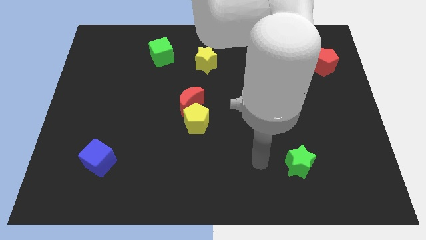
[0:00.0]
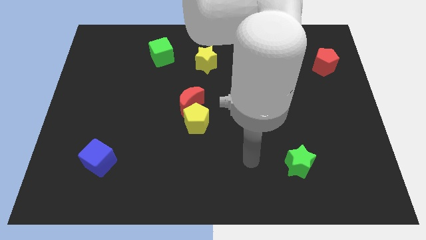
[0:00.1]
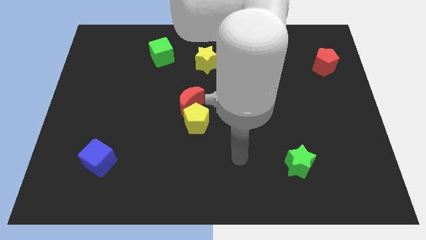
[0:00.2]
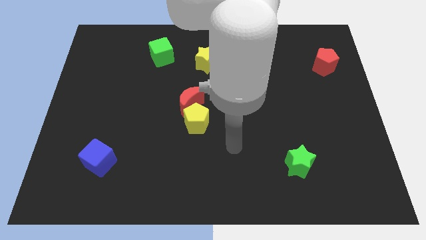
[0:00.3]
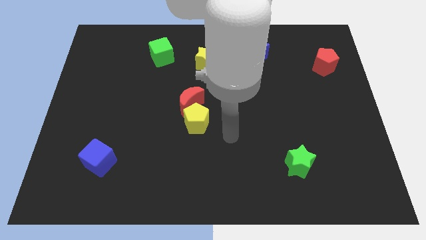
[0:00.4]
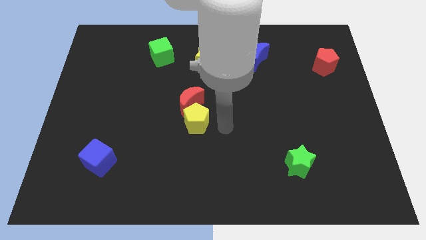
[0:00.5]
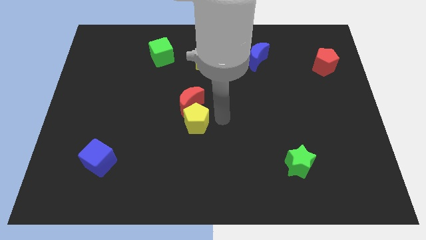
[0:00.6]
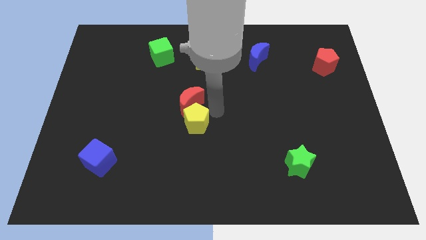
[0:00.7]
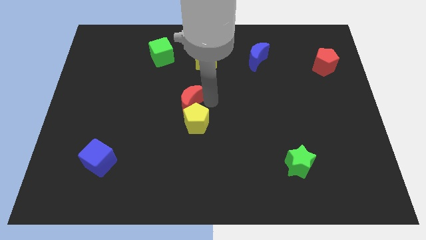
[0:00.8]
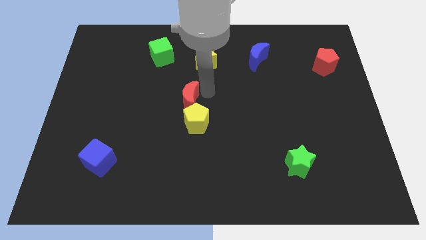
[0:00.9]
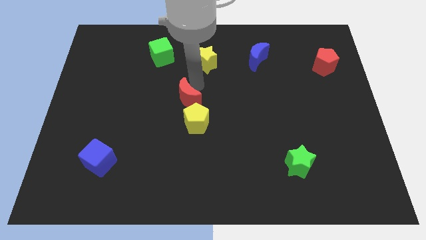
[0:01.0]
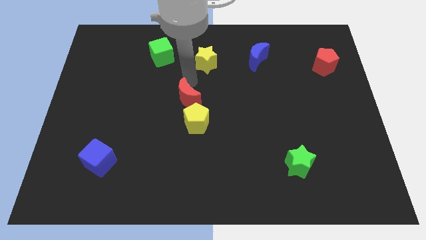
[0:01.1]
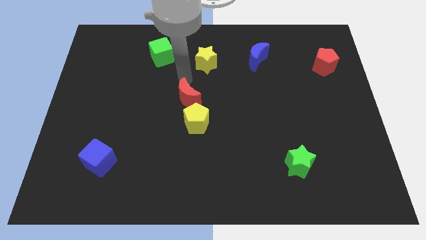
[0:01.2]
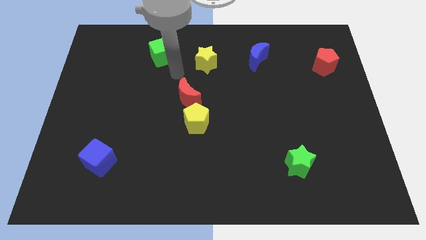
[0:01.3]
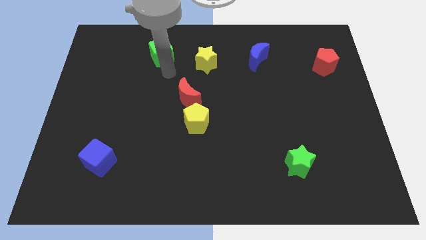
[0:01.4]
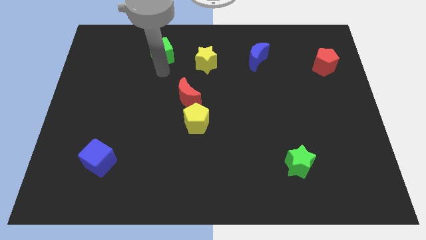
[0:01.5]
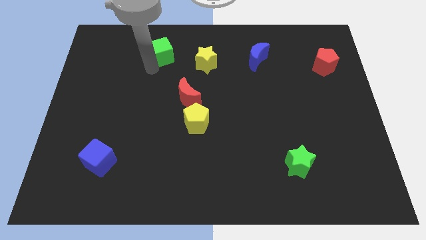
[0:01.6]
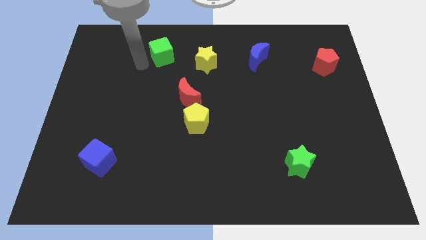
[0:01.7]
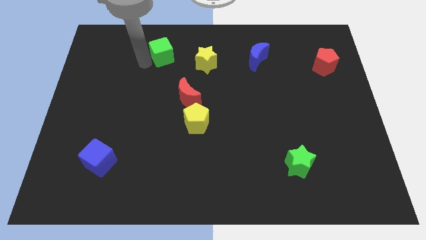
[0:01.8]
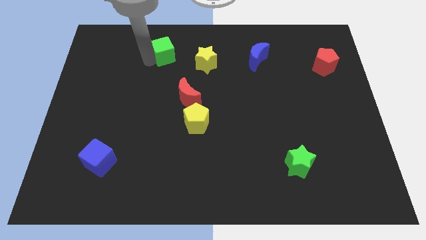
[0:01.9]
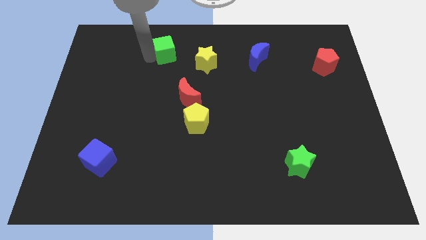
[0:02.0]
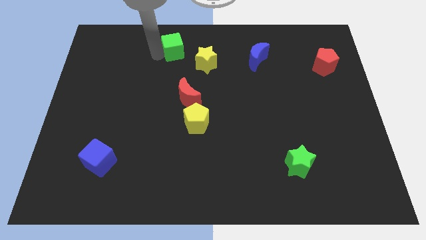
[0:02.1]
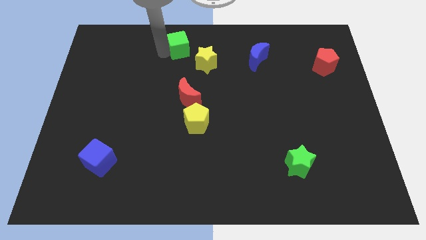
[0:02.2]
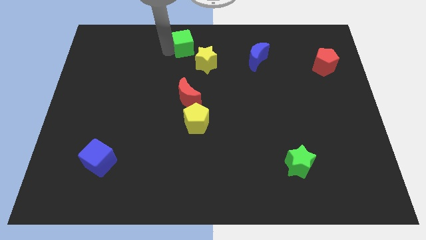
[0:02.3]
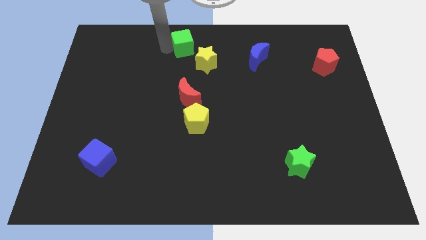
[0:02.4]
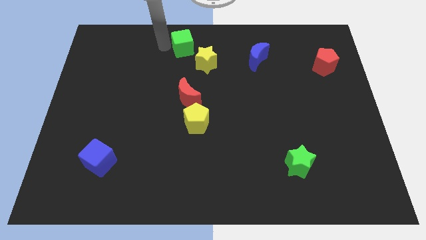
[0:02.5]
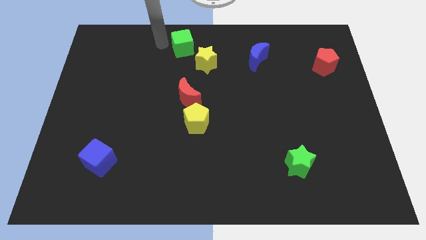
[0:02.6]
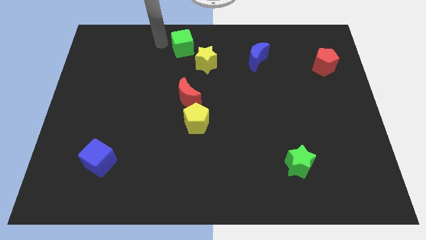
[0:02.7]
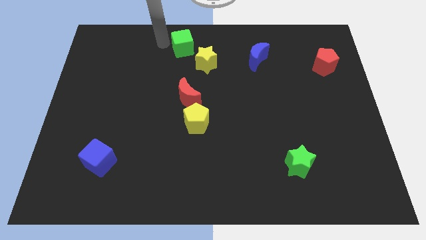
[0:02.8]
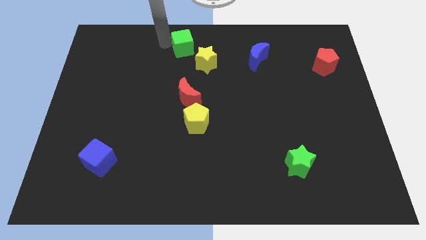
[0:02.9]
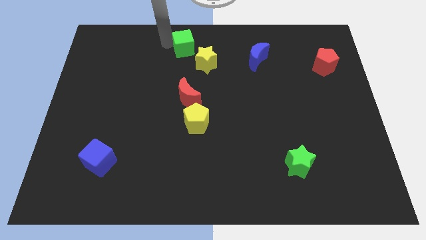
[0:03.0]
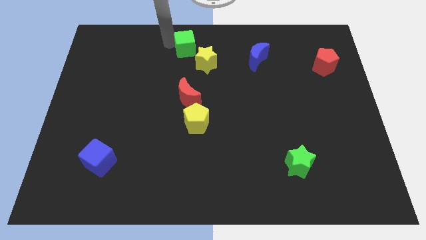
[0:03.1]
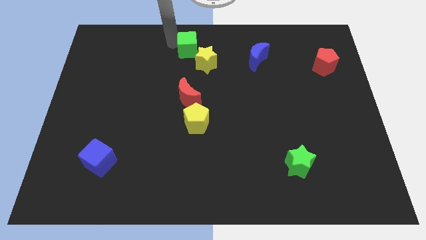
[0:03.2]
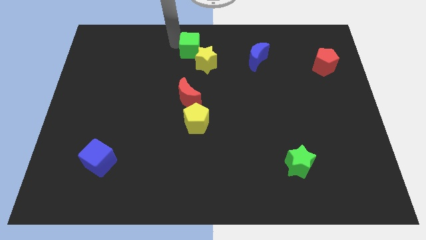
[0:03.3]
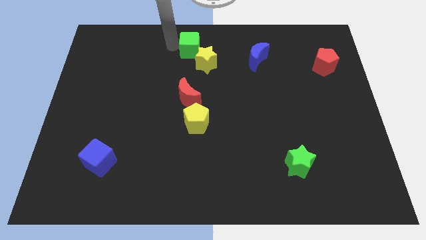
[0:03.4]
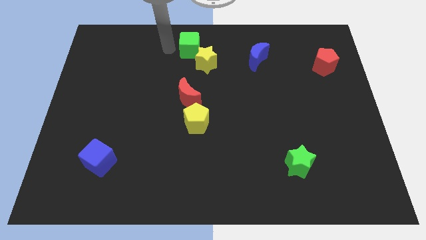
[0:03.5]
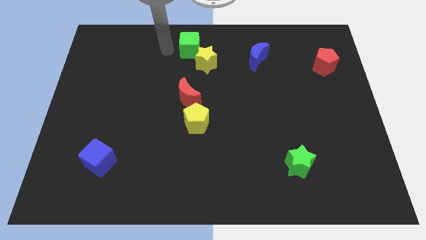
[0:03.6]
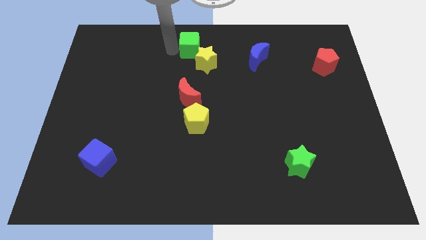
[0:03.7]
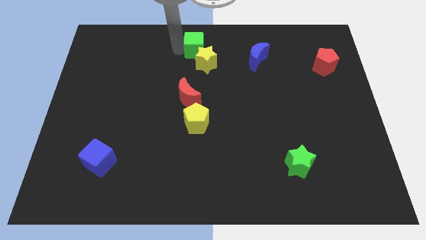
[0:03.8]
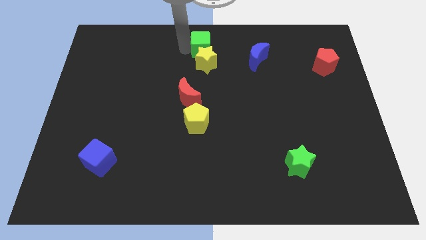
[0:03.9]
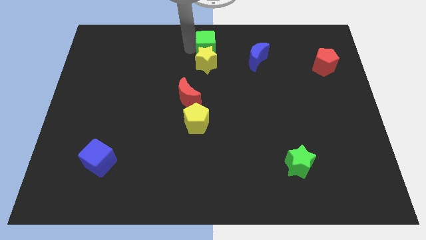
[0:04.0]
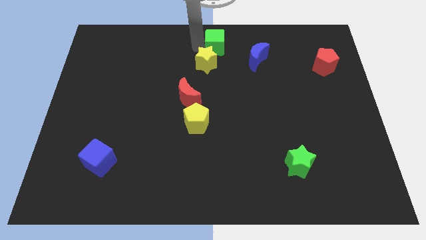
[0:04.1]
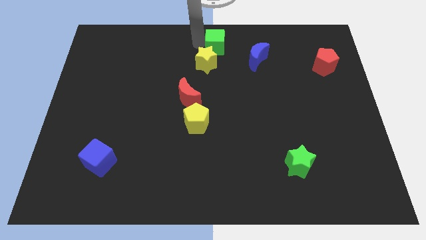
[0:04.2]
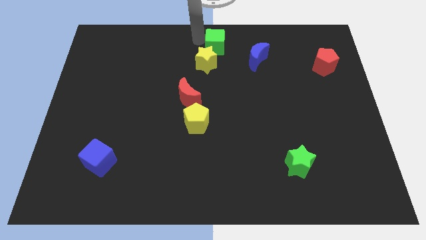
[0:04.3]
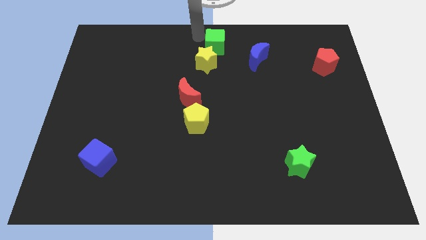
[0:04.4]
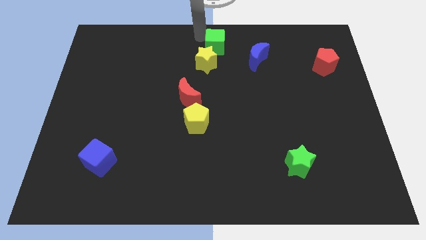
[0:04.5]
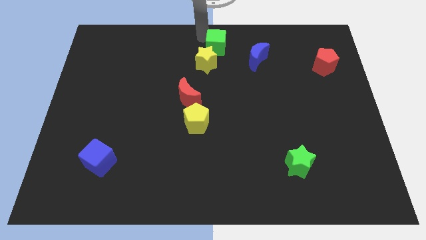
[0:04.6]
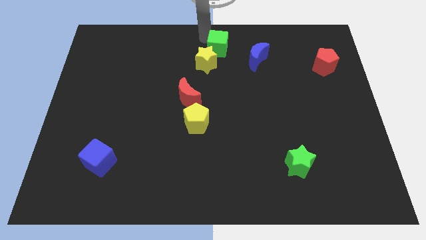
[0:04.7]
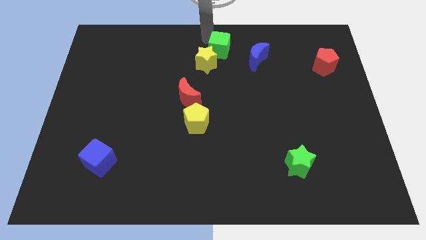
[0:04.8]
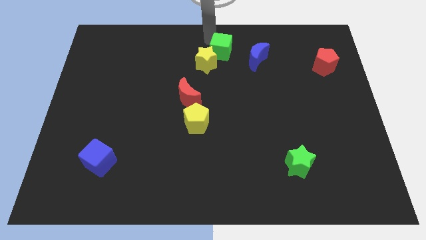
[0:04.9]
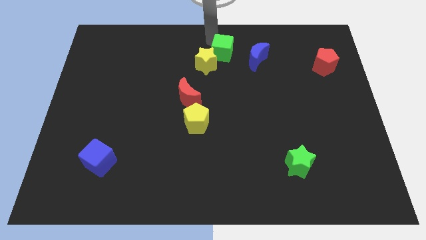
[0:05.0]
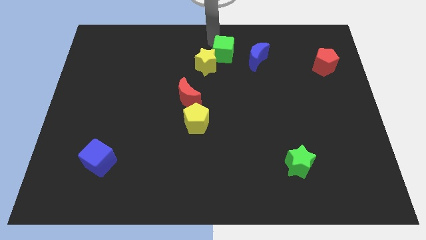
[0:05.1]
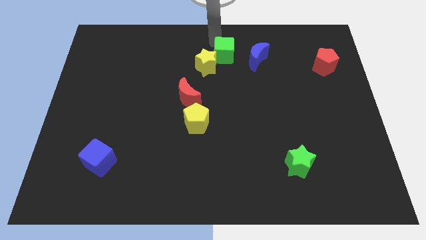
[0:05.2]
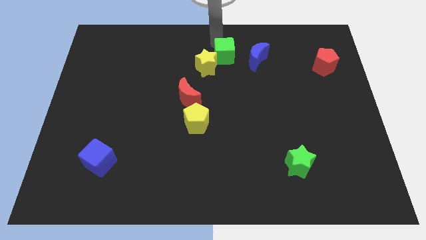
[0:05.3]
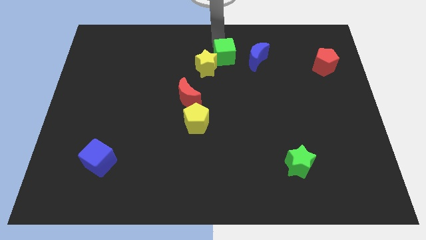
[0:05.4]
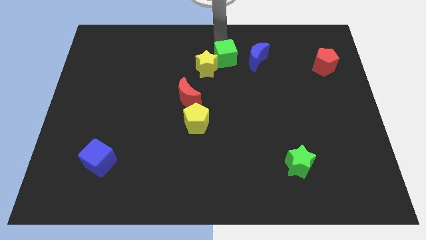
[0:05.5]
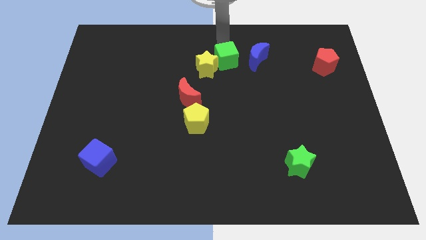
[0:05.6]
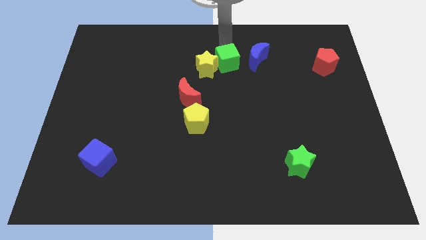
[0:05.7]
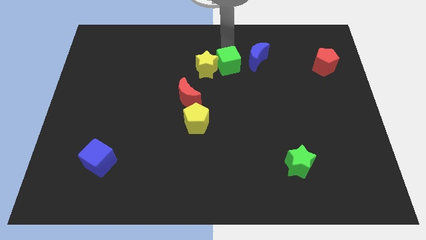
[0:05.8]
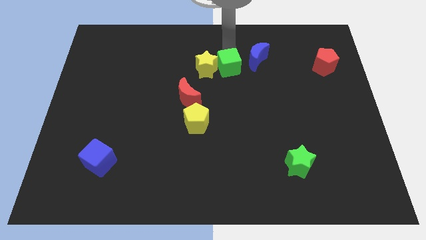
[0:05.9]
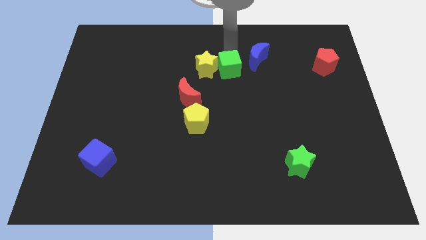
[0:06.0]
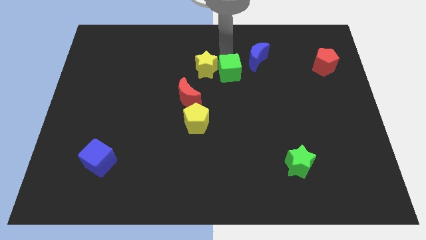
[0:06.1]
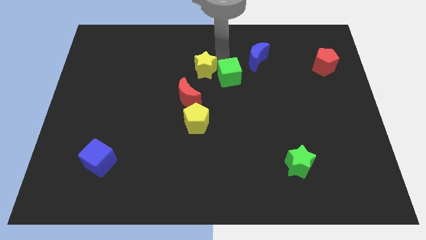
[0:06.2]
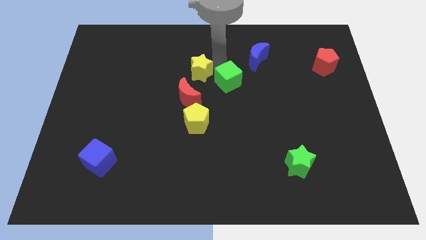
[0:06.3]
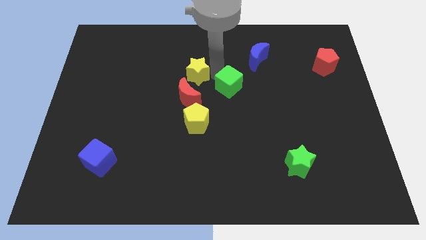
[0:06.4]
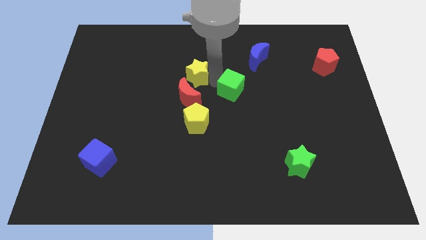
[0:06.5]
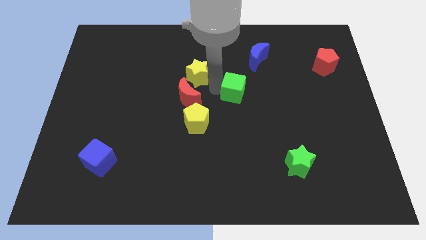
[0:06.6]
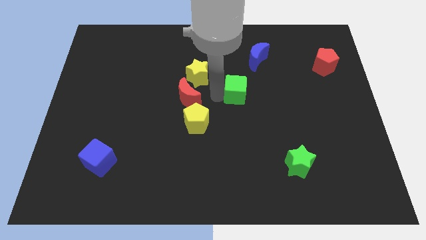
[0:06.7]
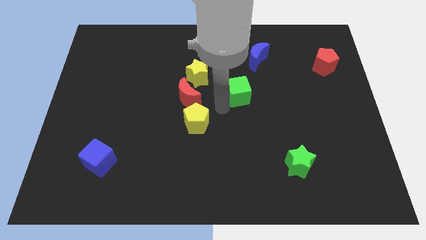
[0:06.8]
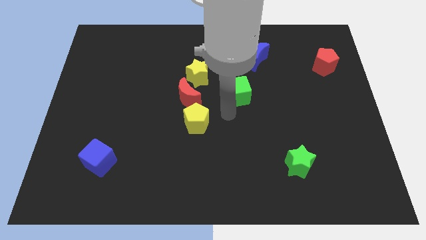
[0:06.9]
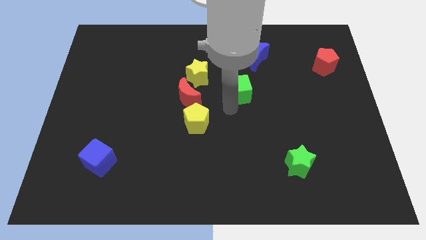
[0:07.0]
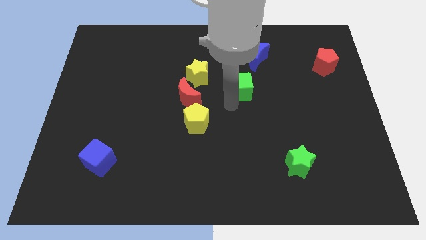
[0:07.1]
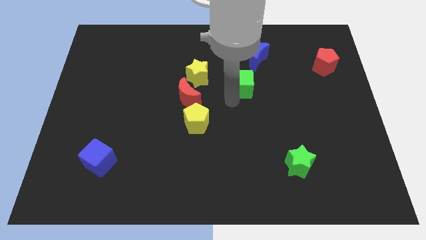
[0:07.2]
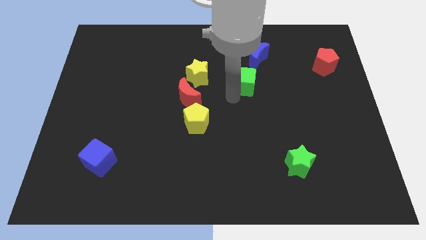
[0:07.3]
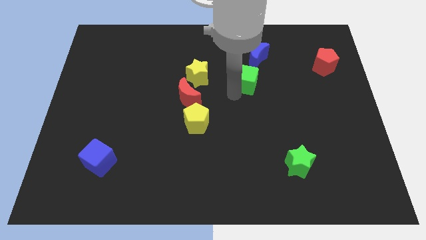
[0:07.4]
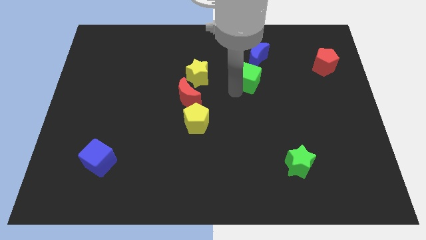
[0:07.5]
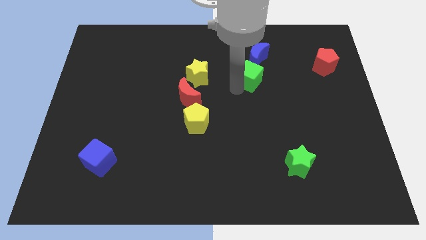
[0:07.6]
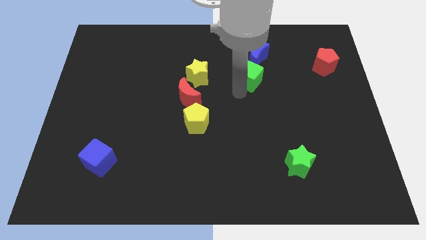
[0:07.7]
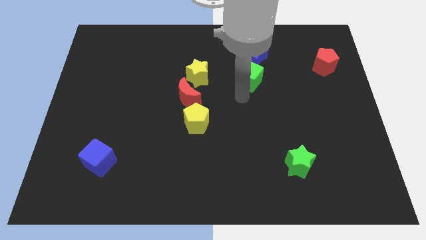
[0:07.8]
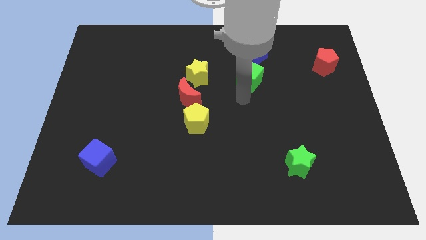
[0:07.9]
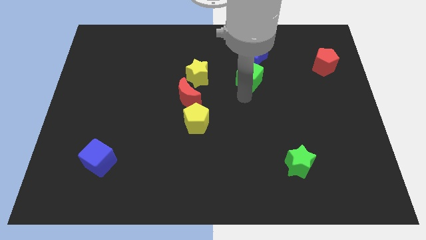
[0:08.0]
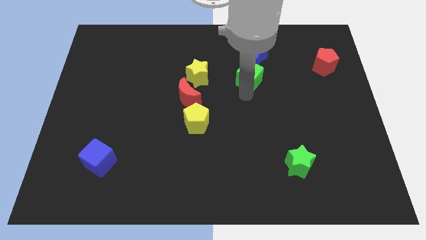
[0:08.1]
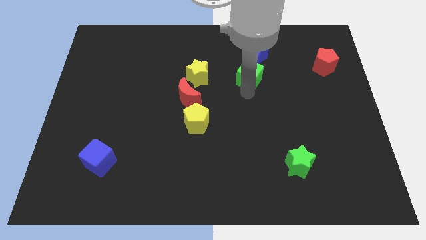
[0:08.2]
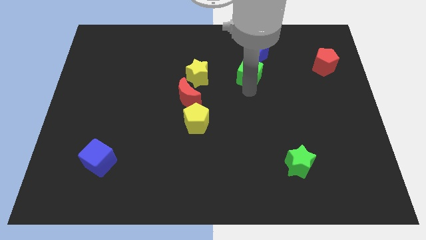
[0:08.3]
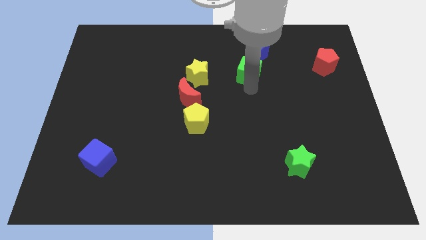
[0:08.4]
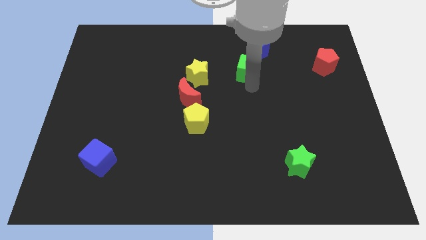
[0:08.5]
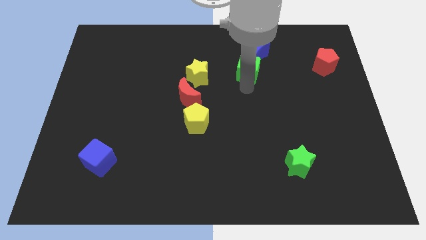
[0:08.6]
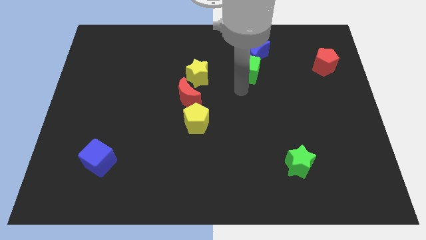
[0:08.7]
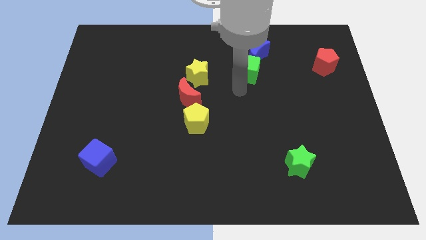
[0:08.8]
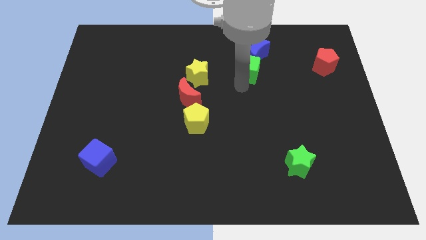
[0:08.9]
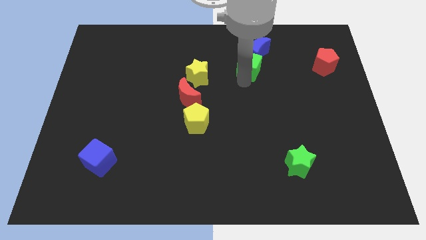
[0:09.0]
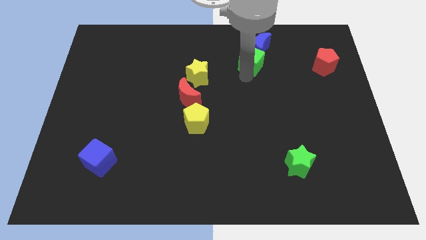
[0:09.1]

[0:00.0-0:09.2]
slide the green cube close to the blue moon
